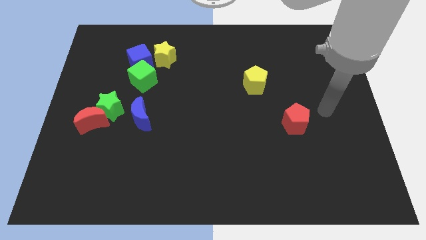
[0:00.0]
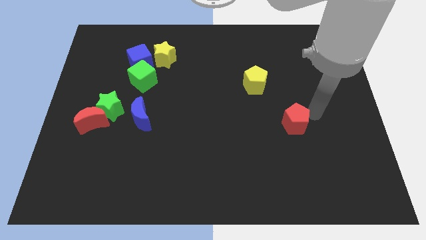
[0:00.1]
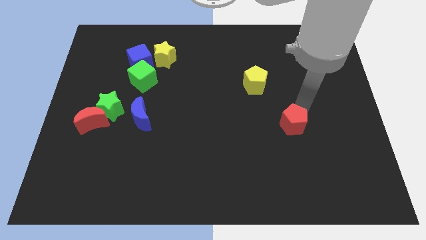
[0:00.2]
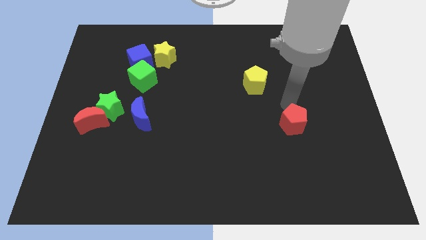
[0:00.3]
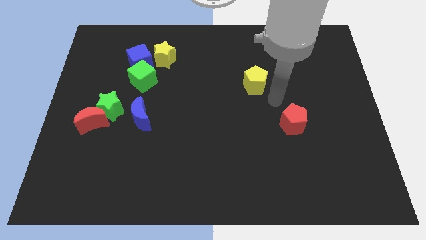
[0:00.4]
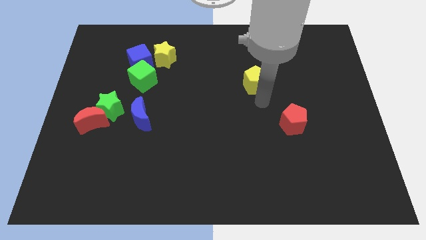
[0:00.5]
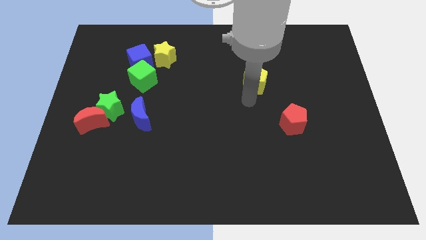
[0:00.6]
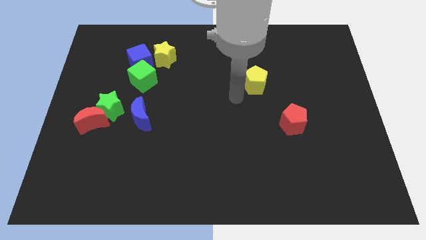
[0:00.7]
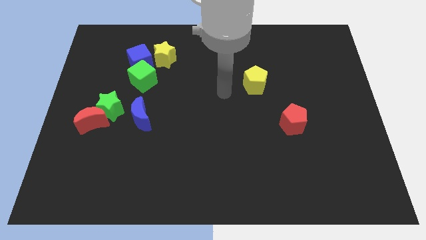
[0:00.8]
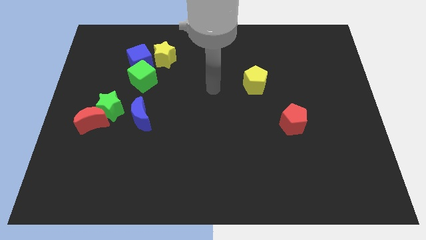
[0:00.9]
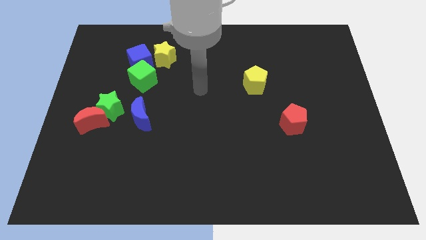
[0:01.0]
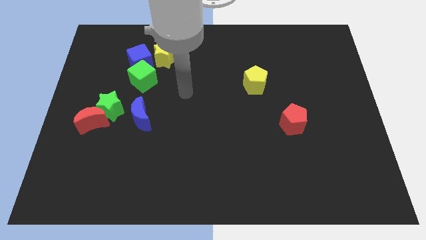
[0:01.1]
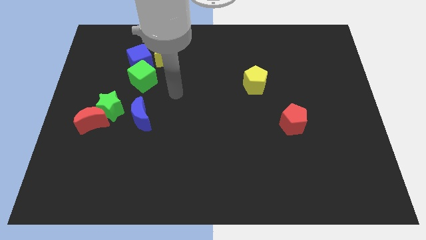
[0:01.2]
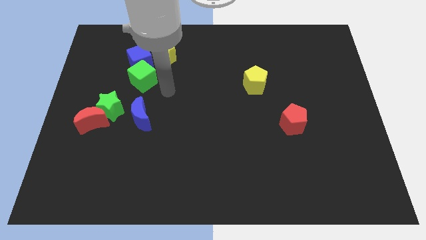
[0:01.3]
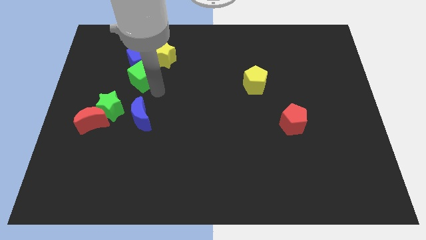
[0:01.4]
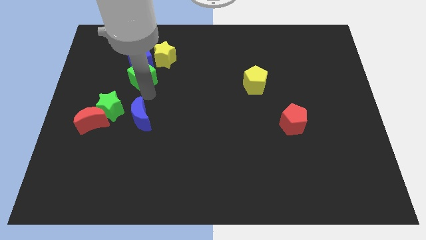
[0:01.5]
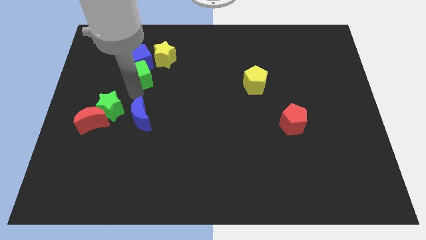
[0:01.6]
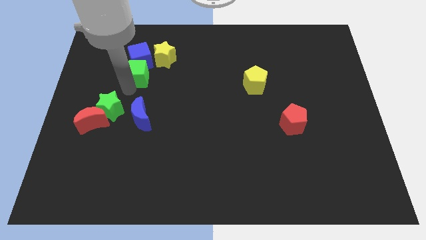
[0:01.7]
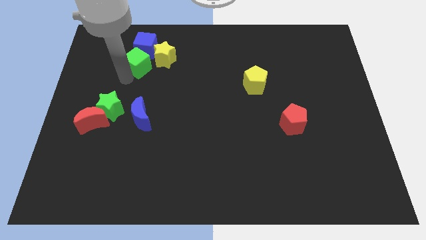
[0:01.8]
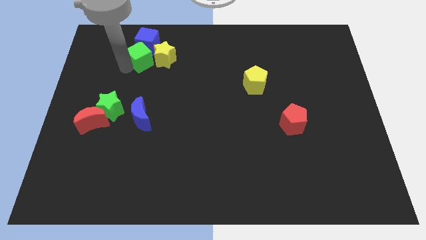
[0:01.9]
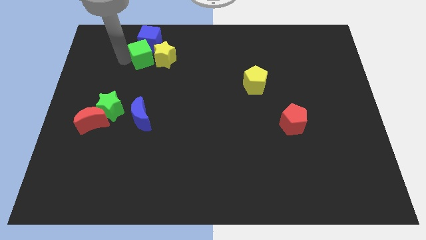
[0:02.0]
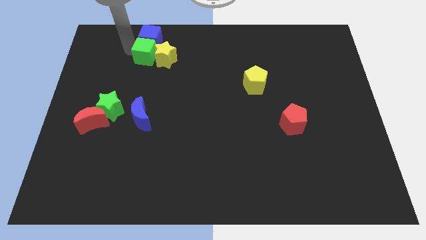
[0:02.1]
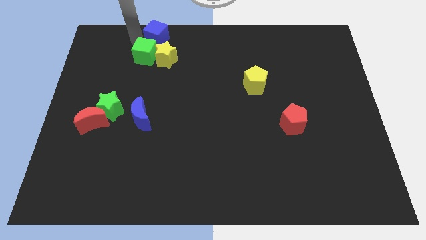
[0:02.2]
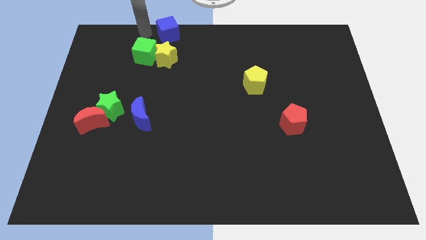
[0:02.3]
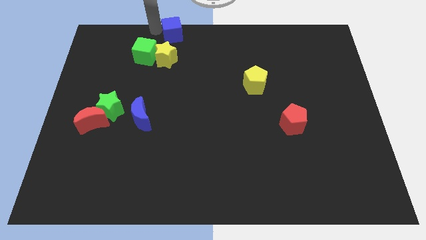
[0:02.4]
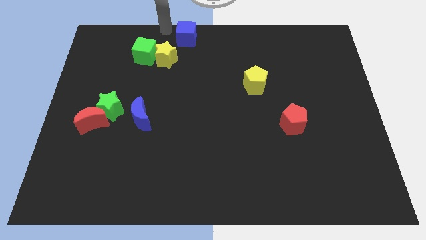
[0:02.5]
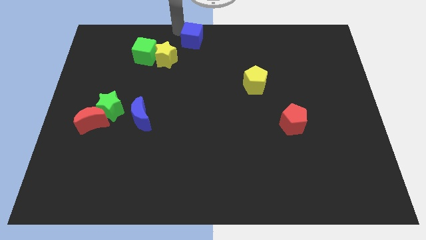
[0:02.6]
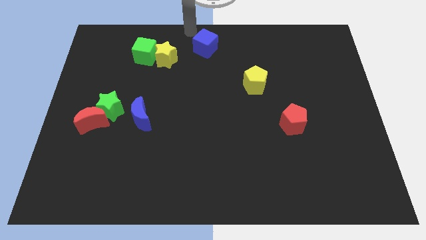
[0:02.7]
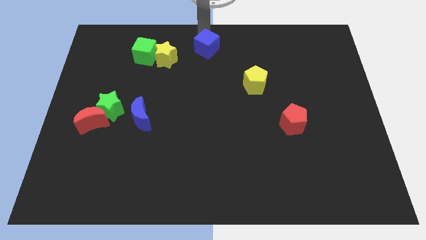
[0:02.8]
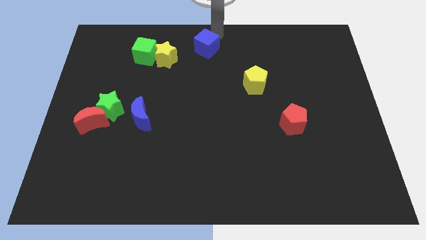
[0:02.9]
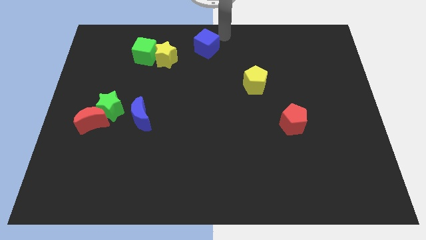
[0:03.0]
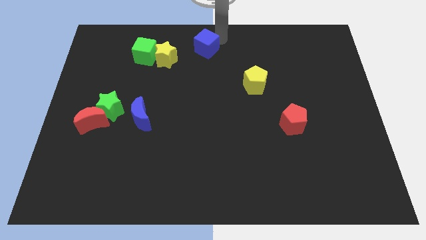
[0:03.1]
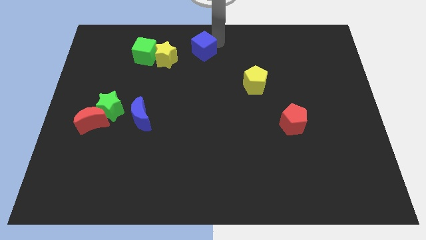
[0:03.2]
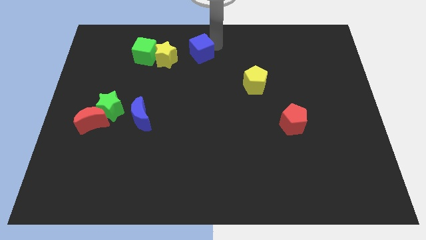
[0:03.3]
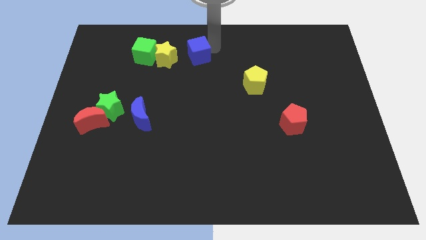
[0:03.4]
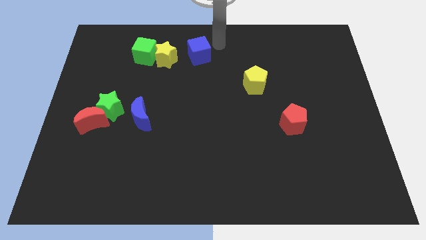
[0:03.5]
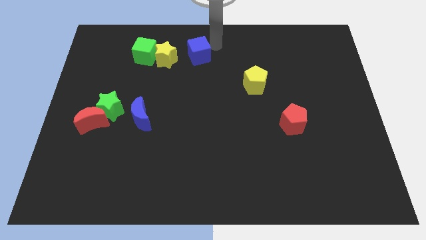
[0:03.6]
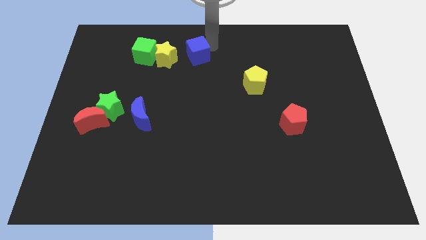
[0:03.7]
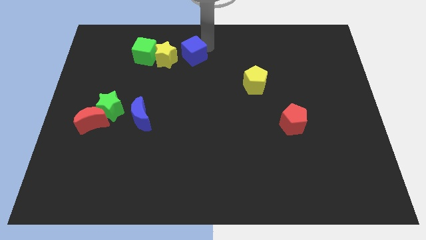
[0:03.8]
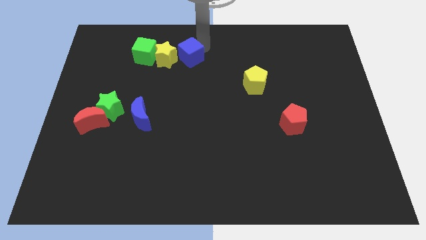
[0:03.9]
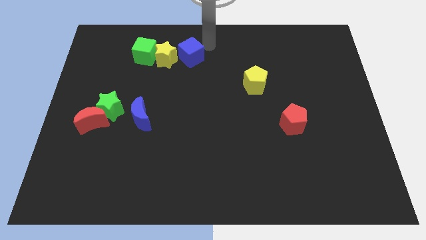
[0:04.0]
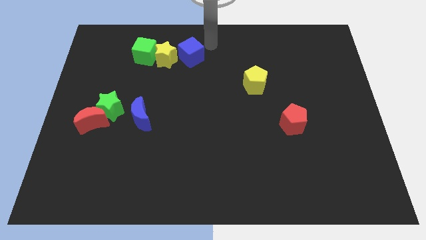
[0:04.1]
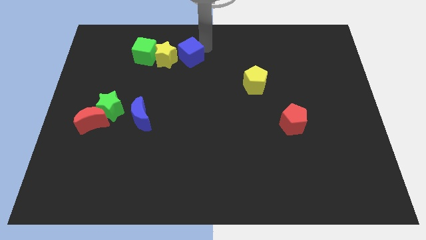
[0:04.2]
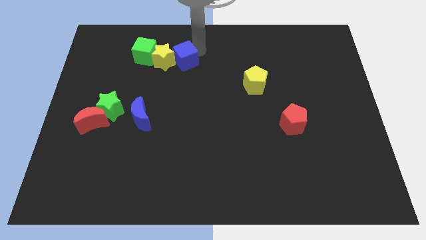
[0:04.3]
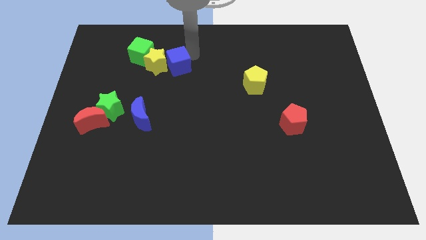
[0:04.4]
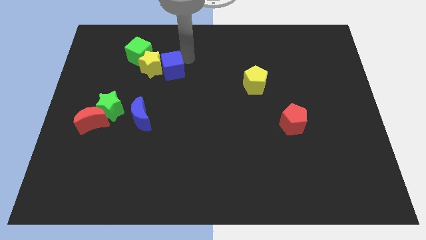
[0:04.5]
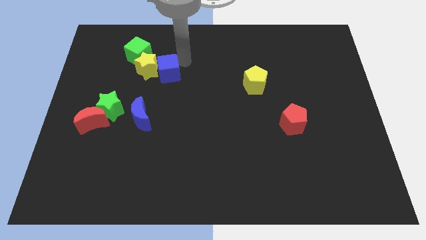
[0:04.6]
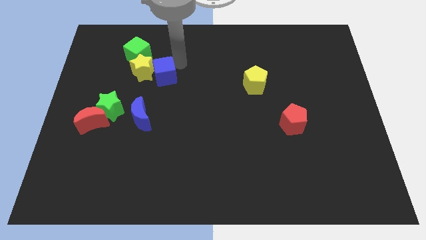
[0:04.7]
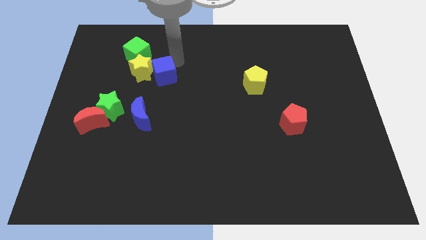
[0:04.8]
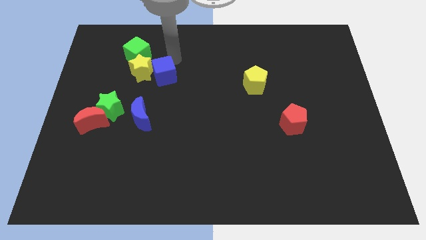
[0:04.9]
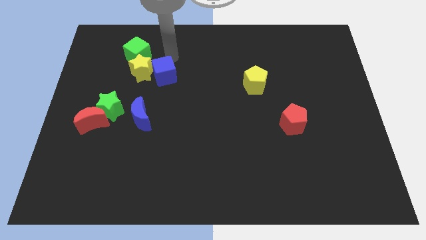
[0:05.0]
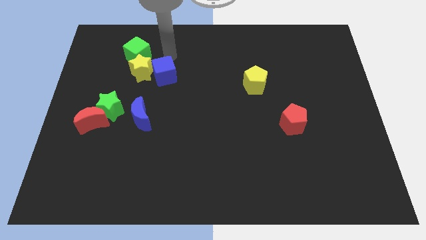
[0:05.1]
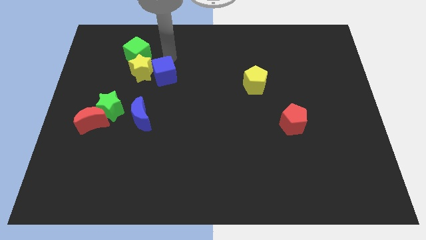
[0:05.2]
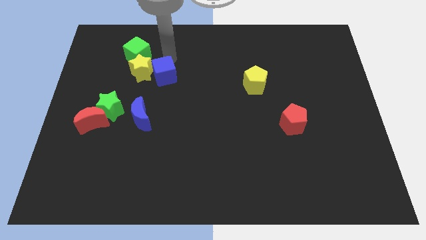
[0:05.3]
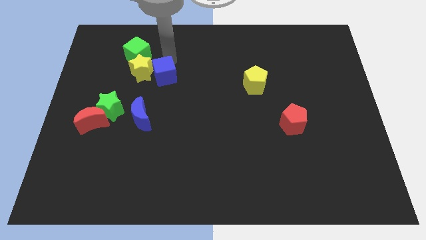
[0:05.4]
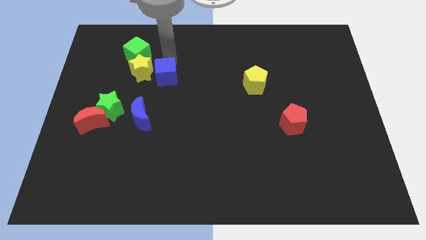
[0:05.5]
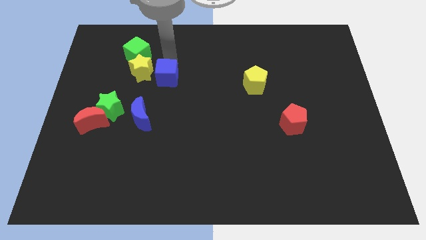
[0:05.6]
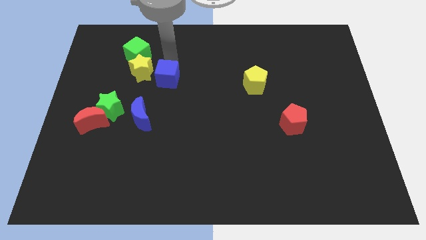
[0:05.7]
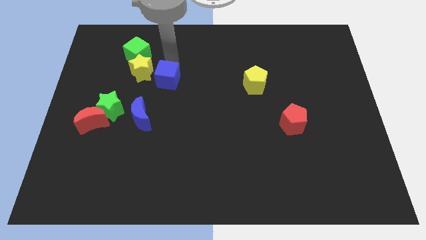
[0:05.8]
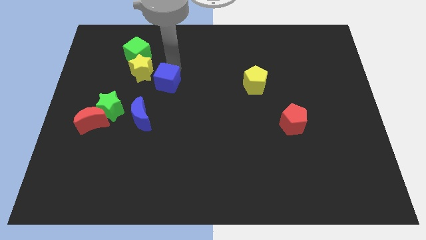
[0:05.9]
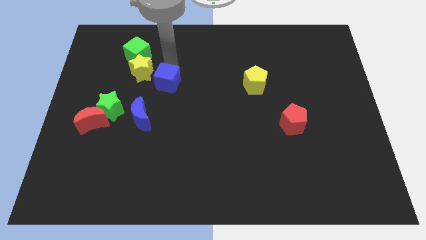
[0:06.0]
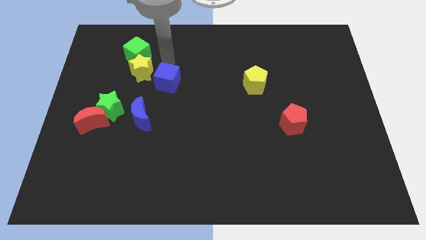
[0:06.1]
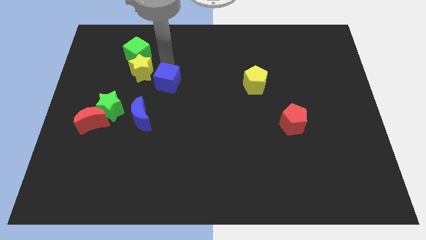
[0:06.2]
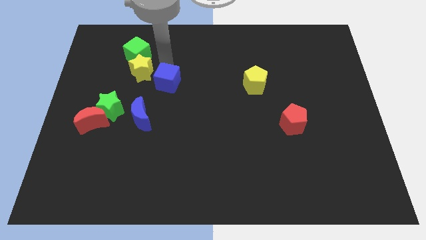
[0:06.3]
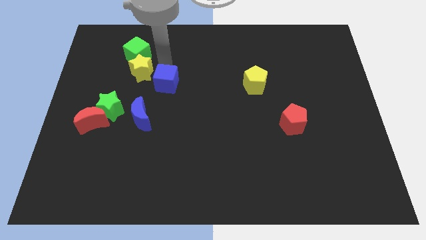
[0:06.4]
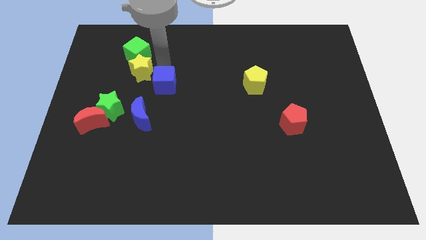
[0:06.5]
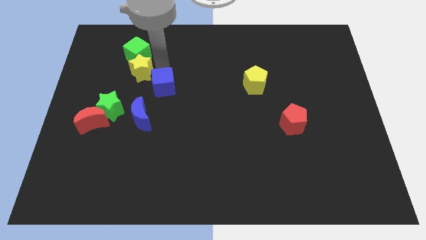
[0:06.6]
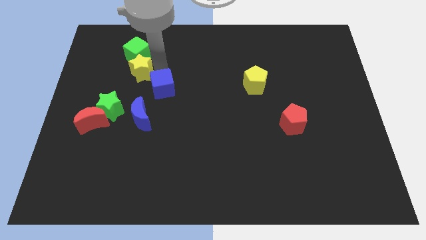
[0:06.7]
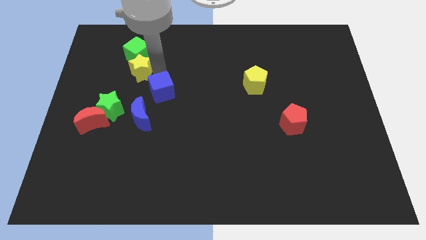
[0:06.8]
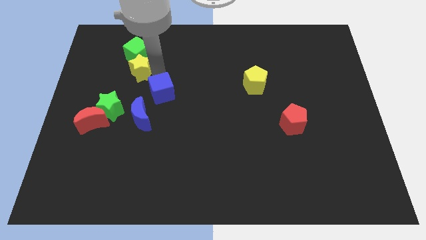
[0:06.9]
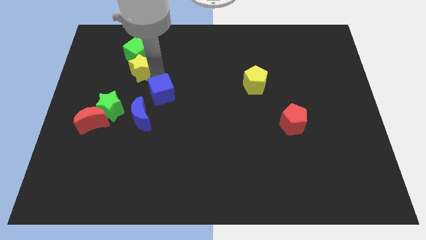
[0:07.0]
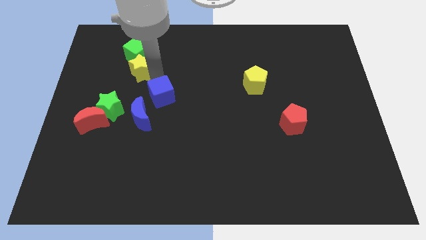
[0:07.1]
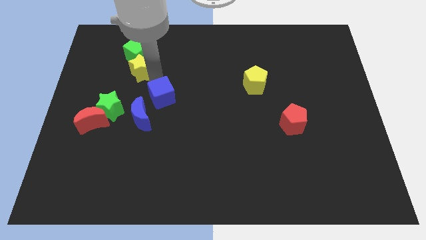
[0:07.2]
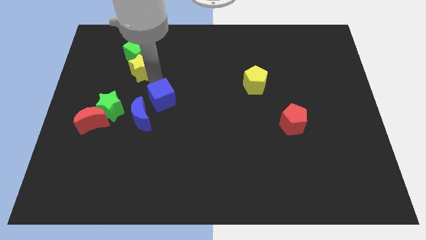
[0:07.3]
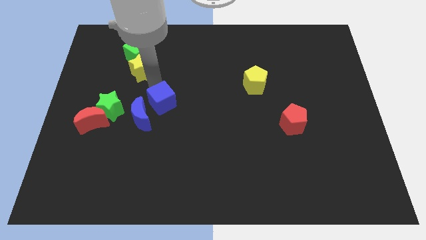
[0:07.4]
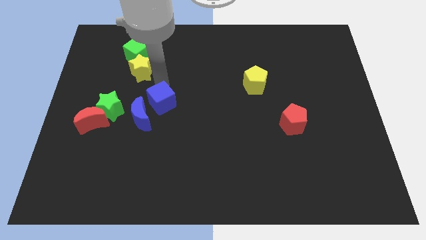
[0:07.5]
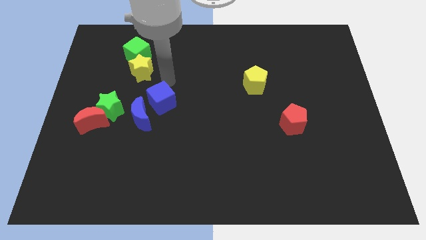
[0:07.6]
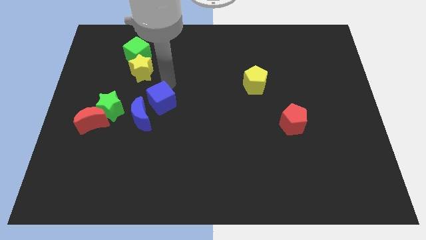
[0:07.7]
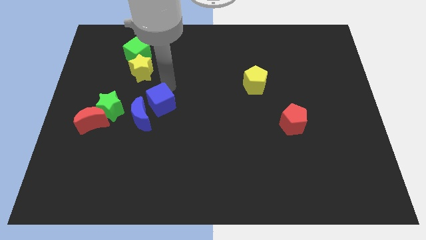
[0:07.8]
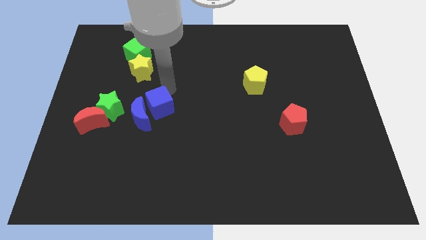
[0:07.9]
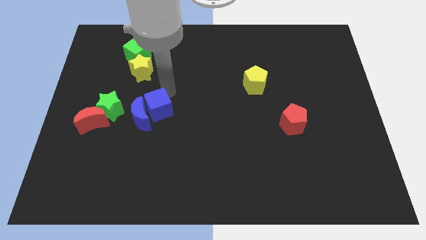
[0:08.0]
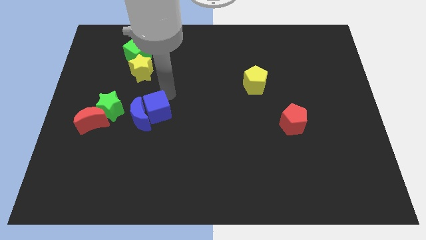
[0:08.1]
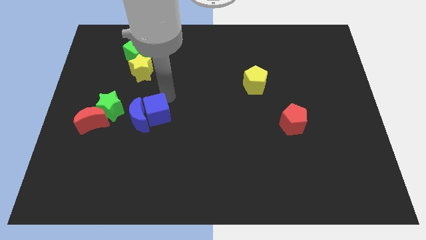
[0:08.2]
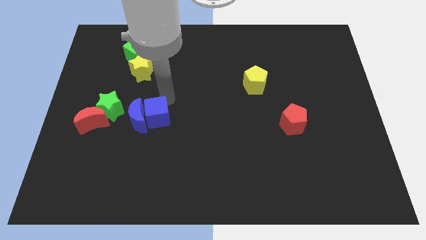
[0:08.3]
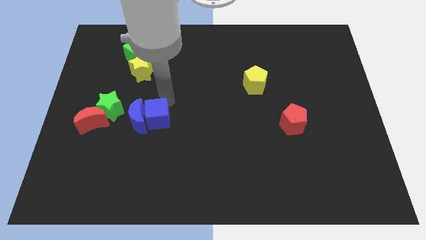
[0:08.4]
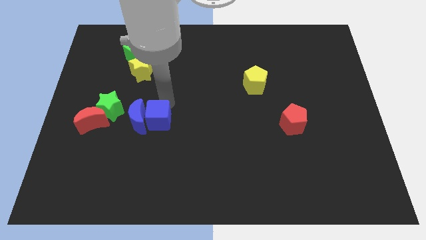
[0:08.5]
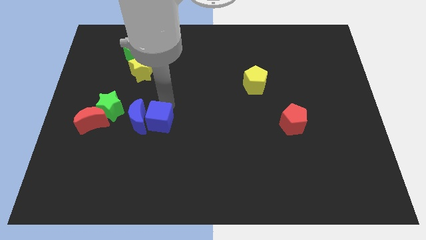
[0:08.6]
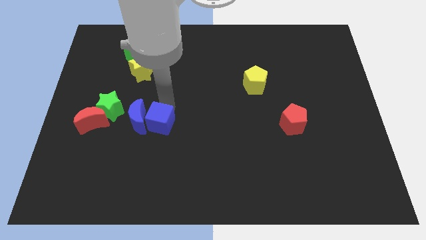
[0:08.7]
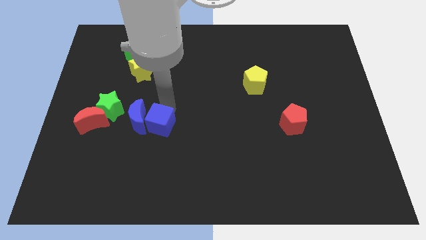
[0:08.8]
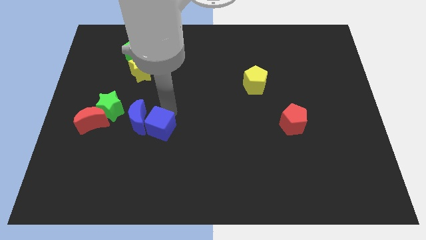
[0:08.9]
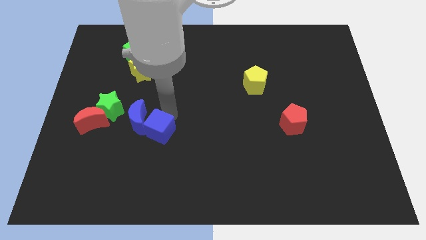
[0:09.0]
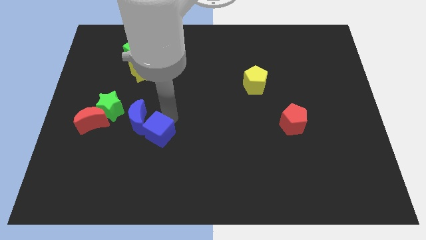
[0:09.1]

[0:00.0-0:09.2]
push the blue cube down
